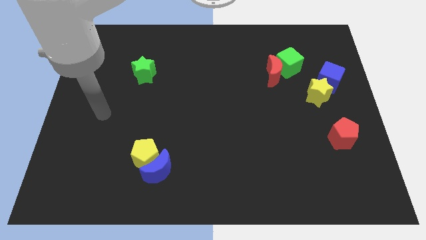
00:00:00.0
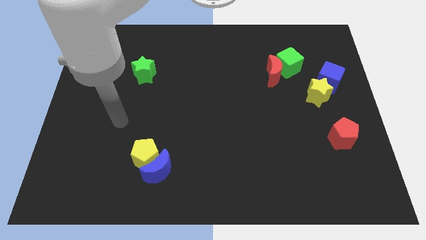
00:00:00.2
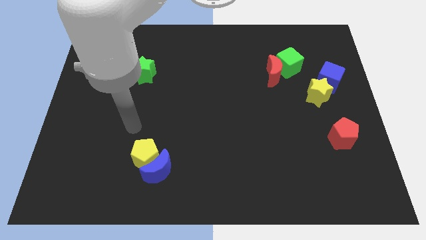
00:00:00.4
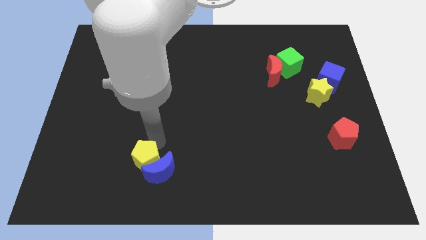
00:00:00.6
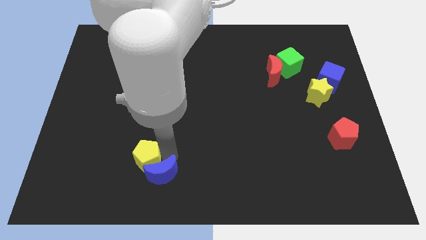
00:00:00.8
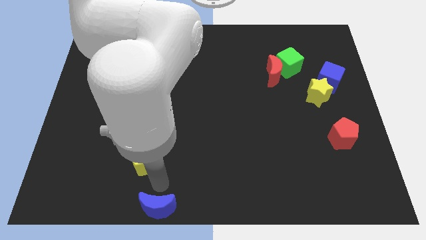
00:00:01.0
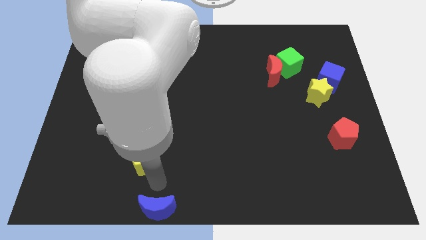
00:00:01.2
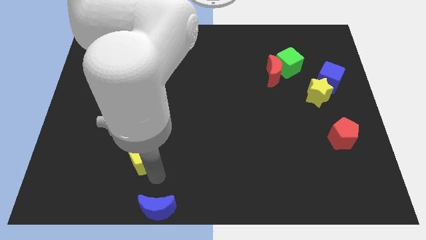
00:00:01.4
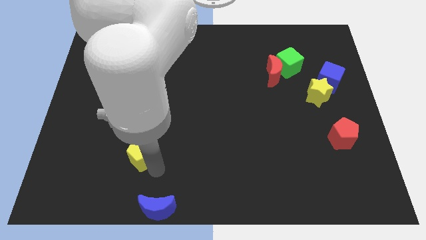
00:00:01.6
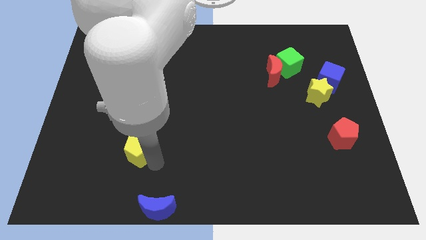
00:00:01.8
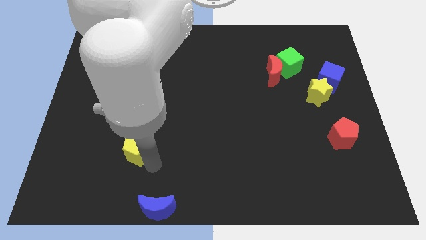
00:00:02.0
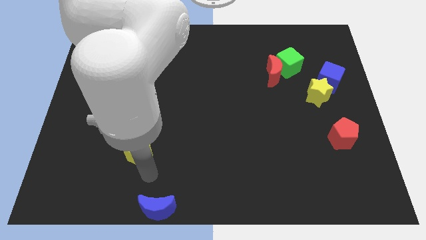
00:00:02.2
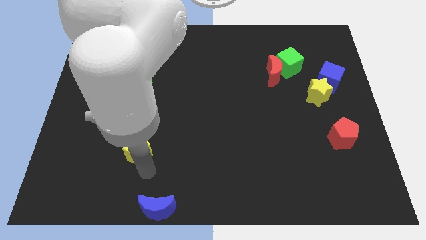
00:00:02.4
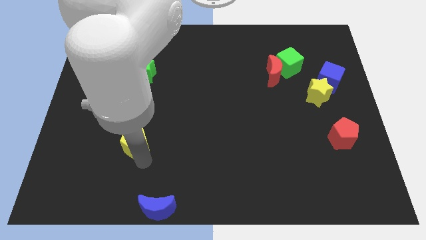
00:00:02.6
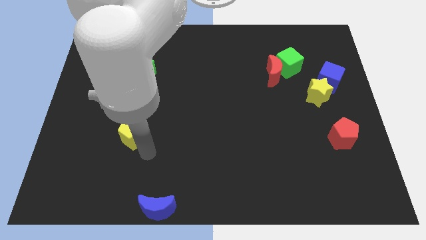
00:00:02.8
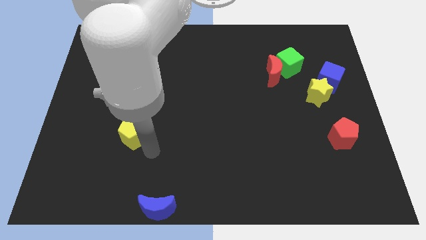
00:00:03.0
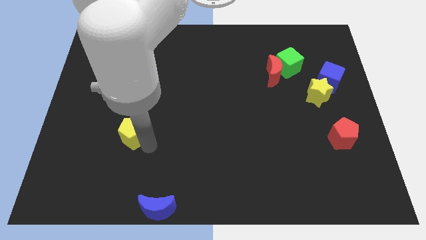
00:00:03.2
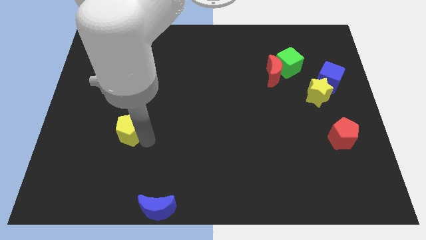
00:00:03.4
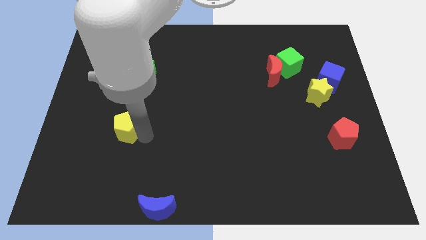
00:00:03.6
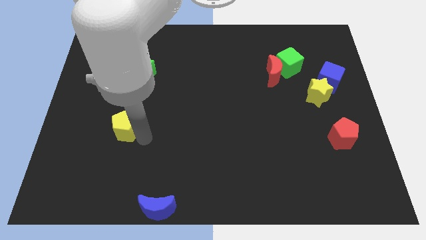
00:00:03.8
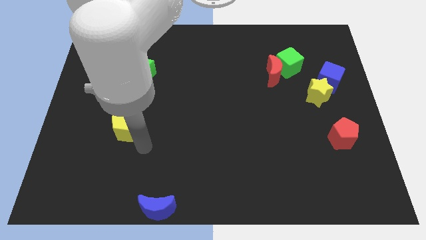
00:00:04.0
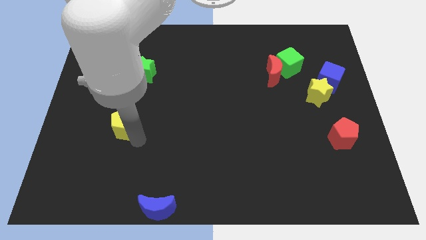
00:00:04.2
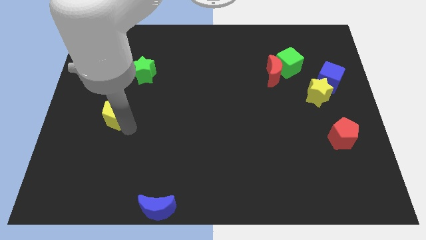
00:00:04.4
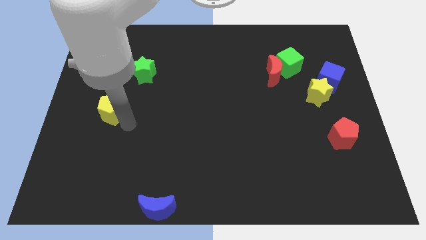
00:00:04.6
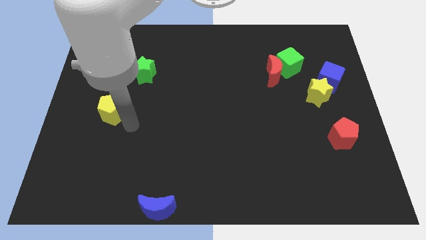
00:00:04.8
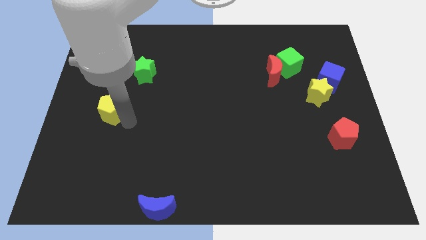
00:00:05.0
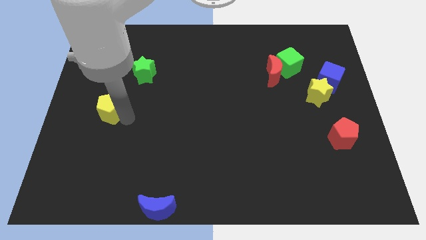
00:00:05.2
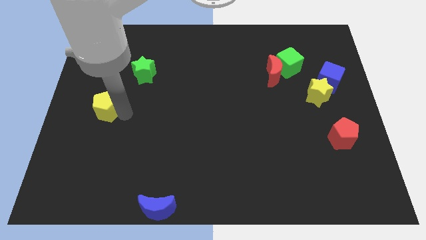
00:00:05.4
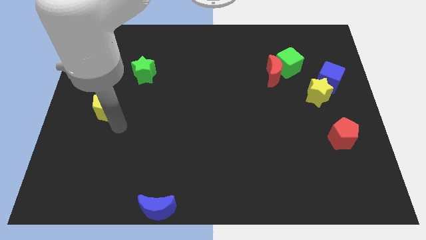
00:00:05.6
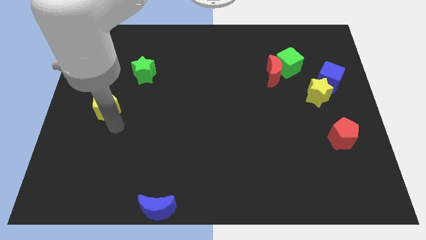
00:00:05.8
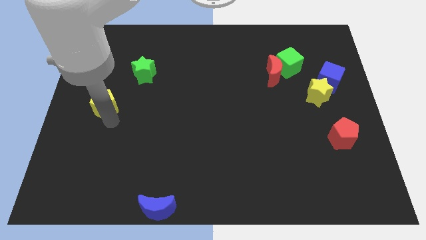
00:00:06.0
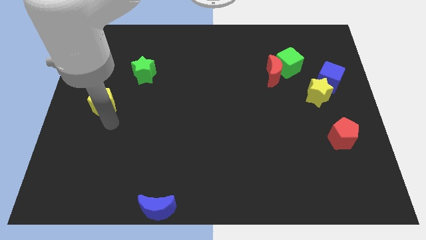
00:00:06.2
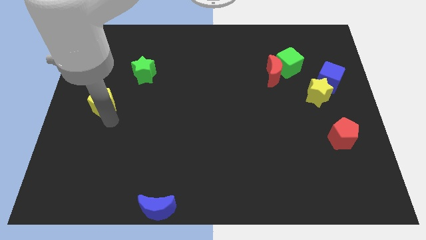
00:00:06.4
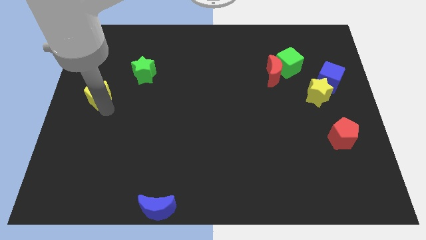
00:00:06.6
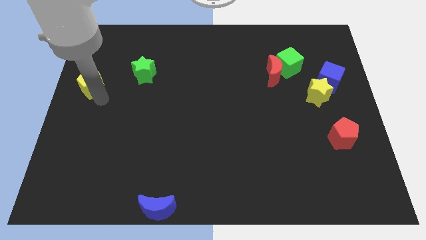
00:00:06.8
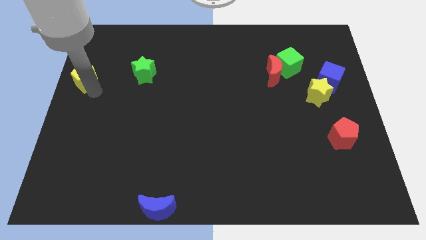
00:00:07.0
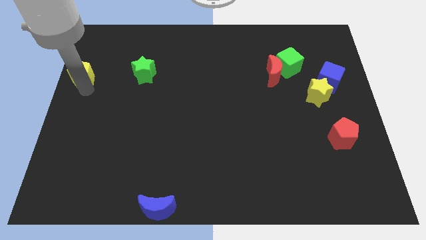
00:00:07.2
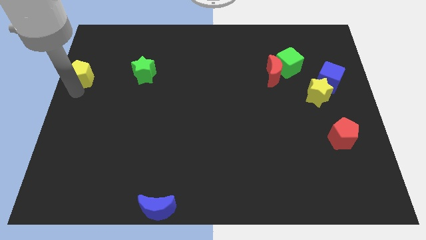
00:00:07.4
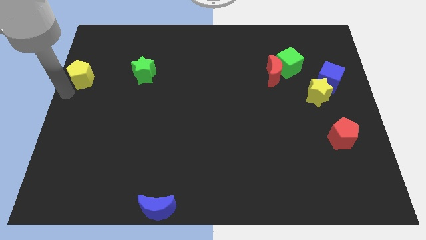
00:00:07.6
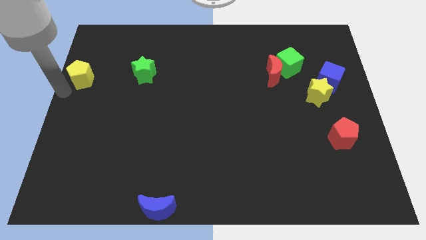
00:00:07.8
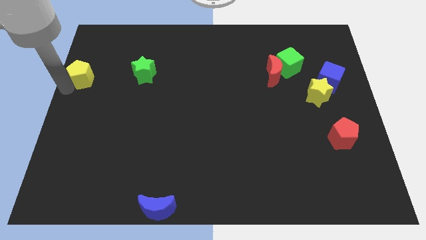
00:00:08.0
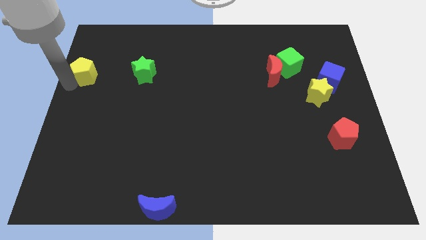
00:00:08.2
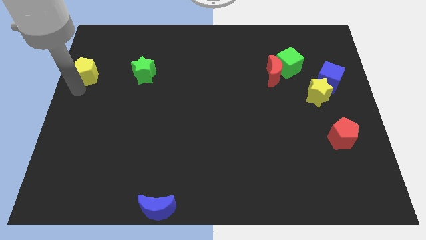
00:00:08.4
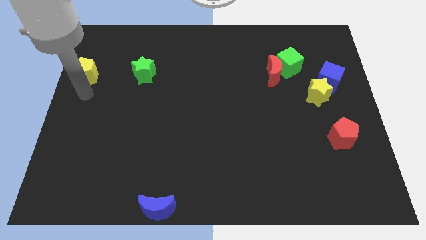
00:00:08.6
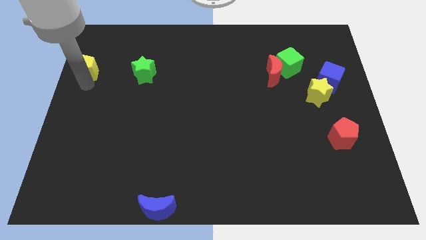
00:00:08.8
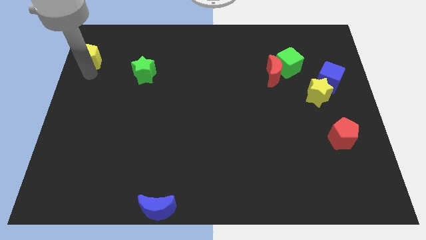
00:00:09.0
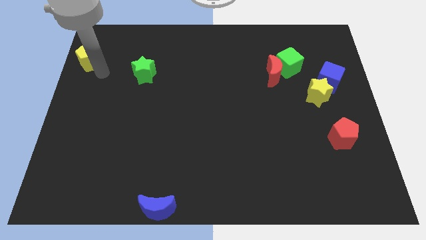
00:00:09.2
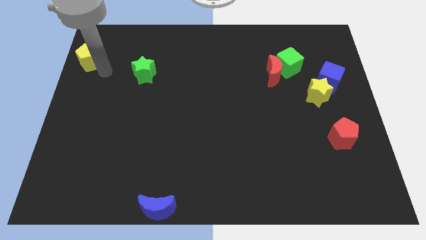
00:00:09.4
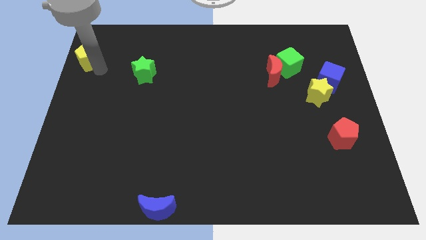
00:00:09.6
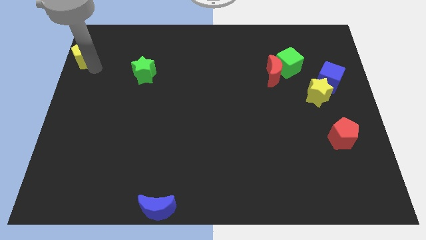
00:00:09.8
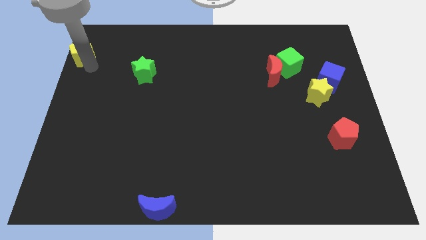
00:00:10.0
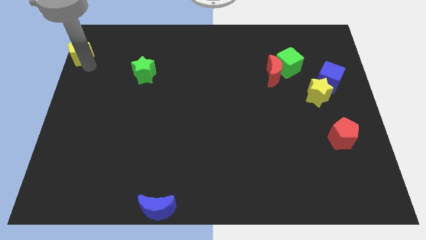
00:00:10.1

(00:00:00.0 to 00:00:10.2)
put the yellow pentagon to the top left of the board
